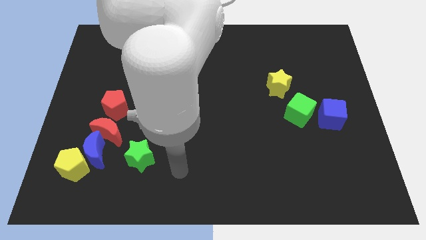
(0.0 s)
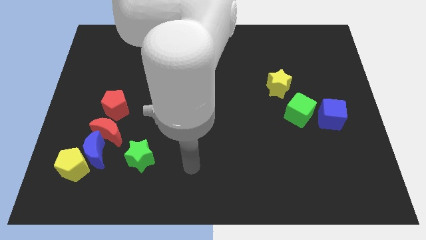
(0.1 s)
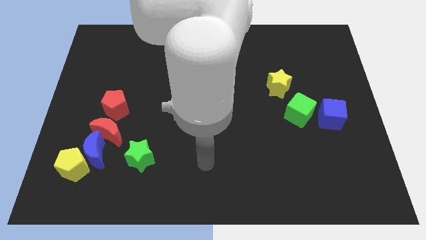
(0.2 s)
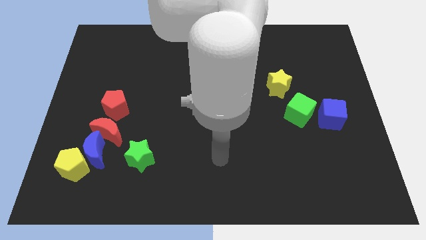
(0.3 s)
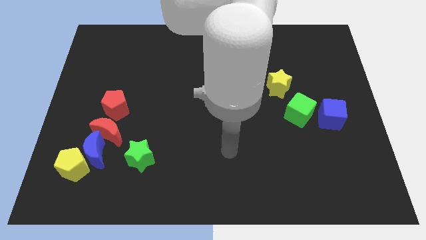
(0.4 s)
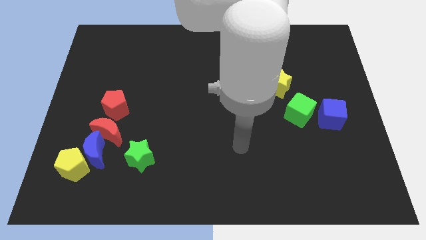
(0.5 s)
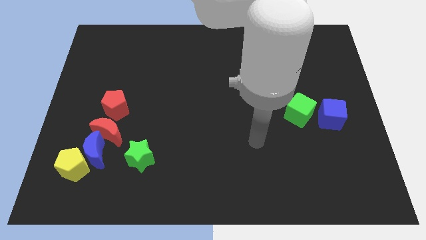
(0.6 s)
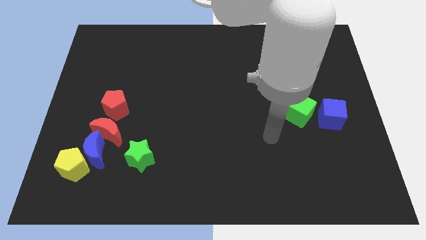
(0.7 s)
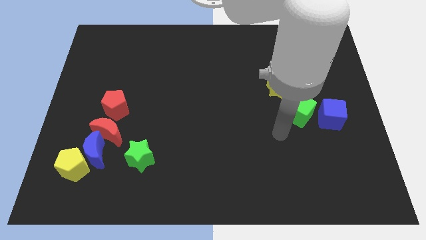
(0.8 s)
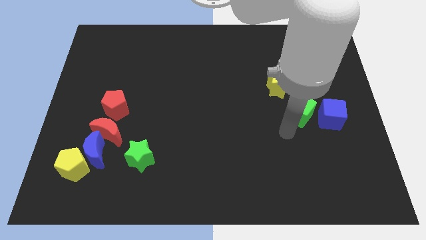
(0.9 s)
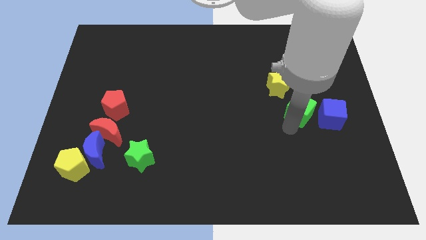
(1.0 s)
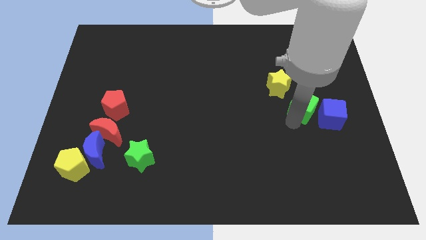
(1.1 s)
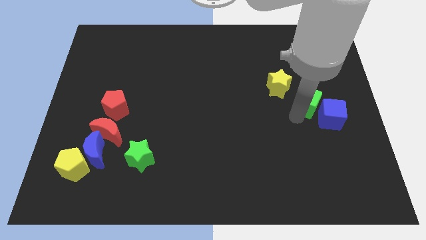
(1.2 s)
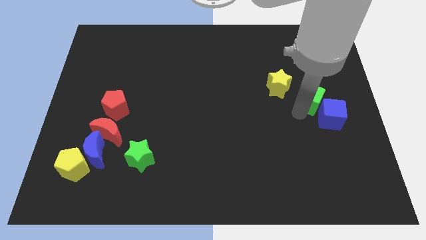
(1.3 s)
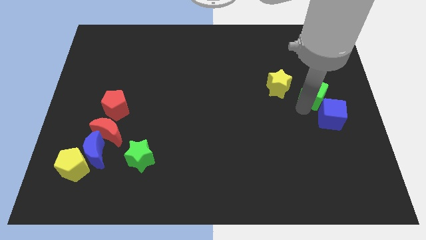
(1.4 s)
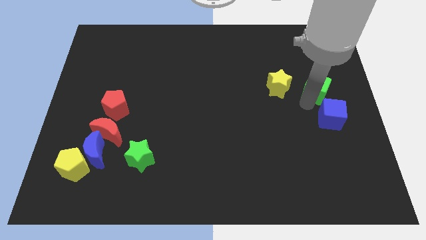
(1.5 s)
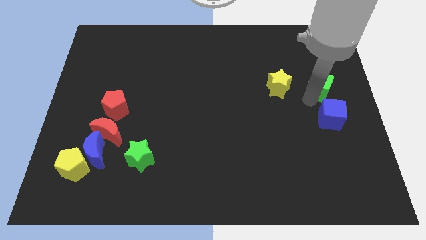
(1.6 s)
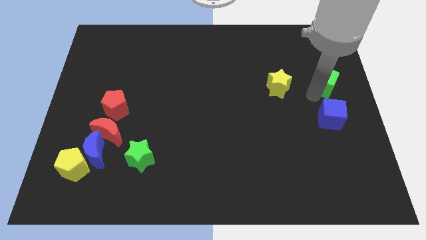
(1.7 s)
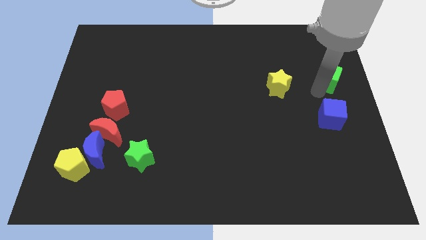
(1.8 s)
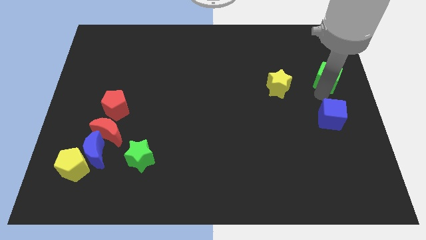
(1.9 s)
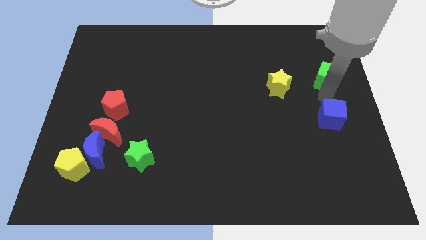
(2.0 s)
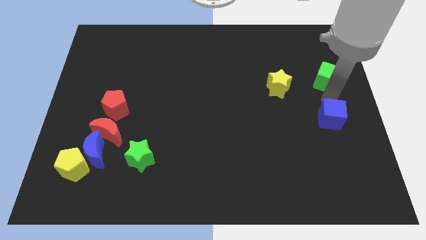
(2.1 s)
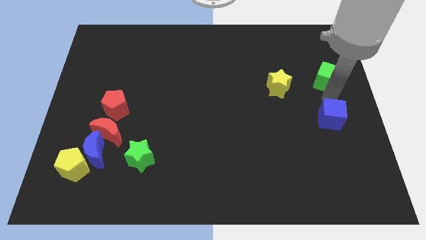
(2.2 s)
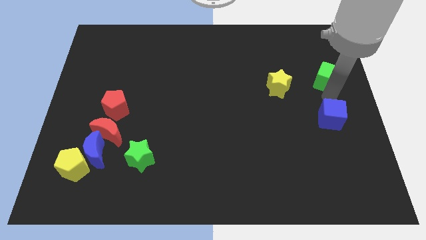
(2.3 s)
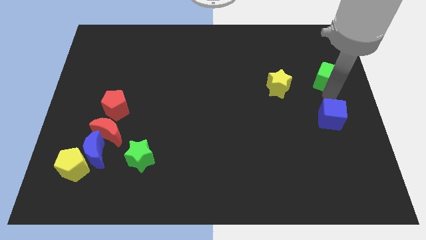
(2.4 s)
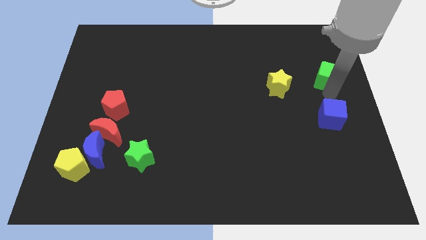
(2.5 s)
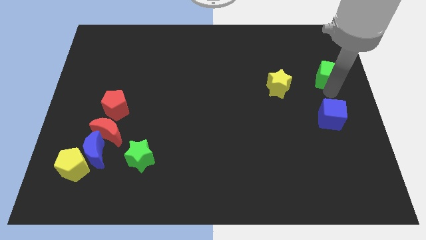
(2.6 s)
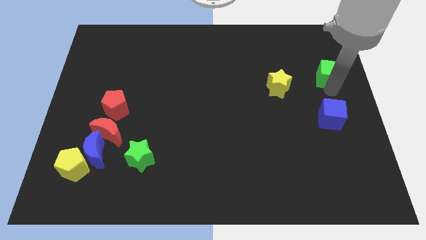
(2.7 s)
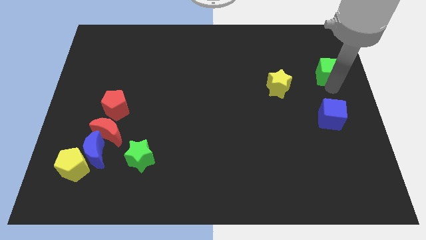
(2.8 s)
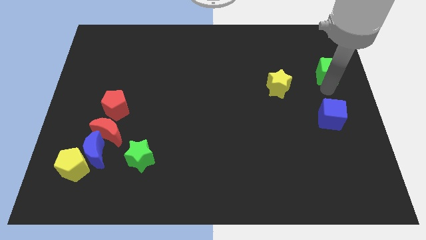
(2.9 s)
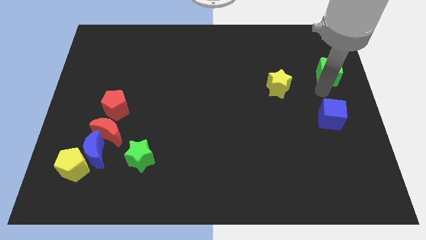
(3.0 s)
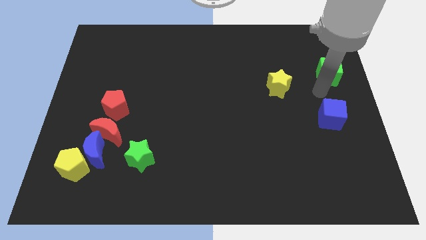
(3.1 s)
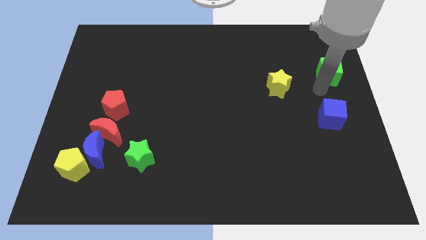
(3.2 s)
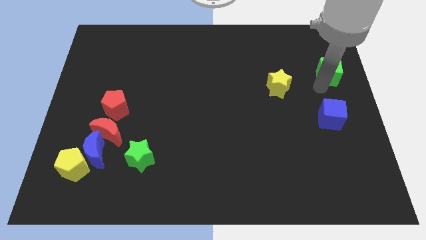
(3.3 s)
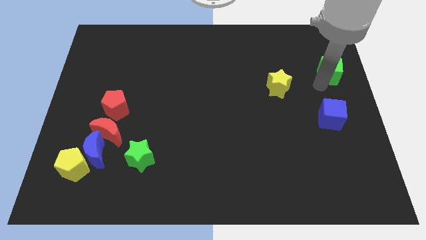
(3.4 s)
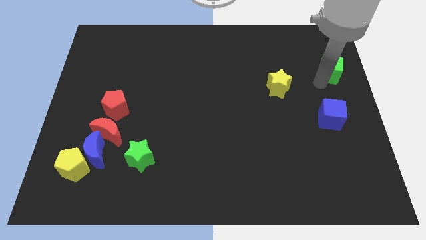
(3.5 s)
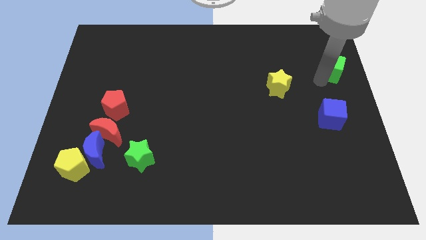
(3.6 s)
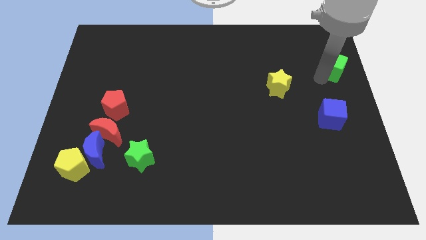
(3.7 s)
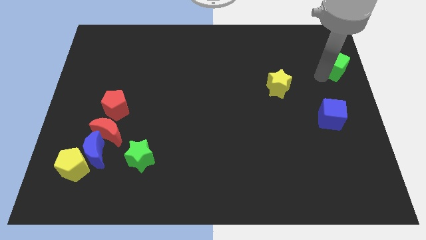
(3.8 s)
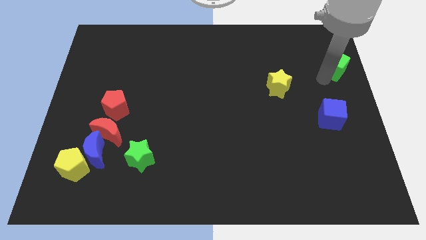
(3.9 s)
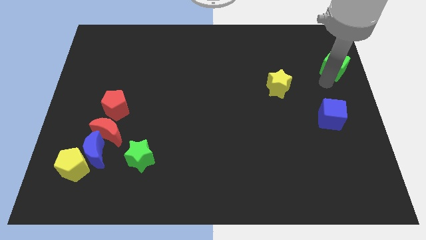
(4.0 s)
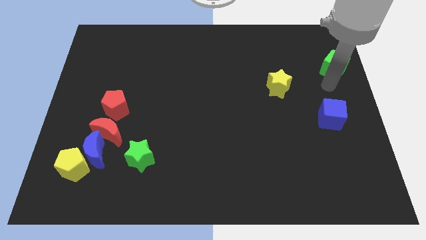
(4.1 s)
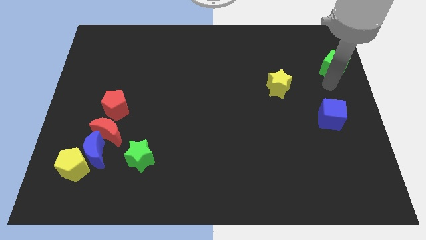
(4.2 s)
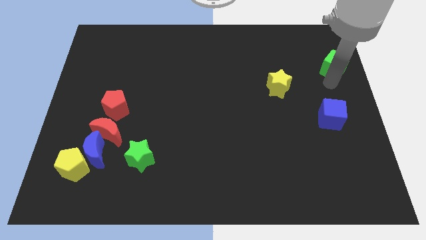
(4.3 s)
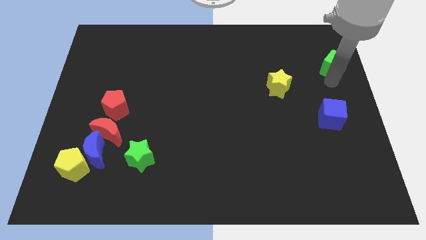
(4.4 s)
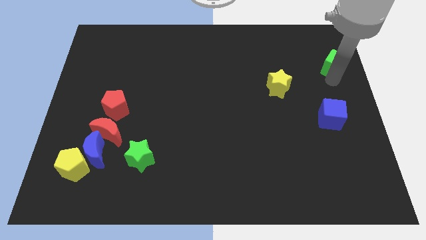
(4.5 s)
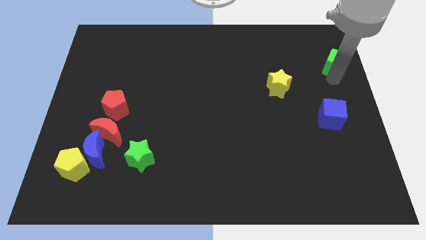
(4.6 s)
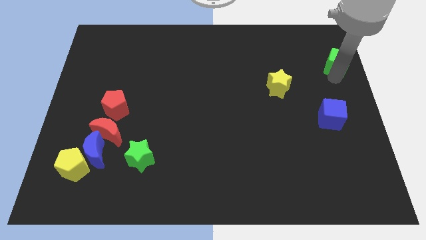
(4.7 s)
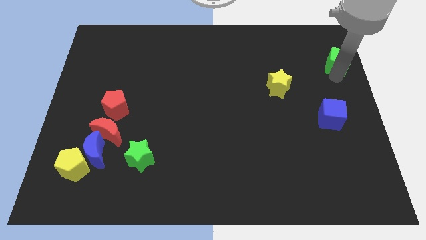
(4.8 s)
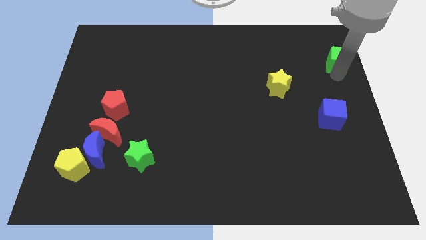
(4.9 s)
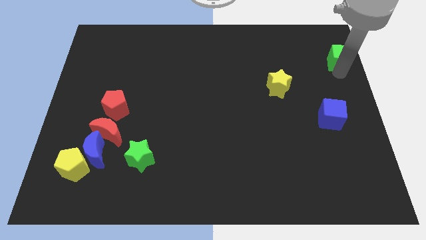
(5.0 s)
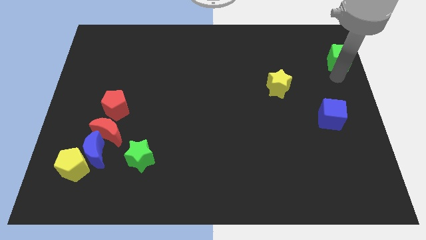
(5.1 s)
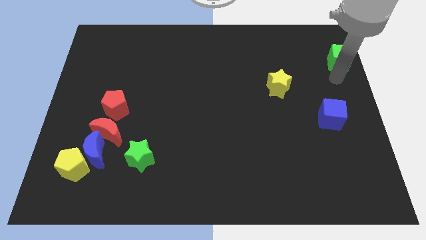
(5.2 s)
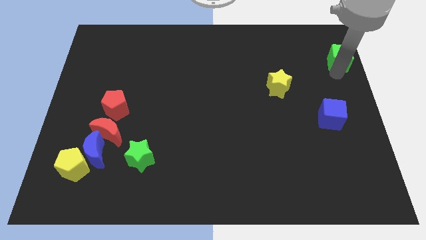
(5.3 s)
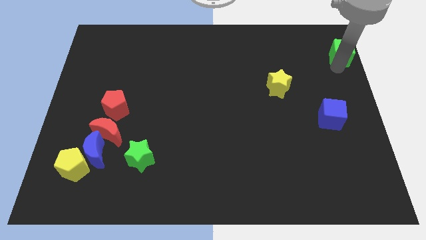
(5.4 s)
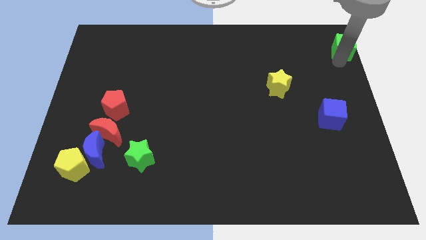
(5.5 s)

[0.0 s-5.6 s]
put the green cube to the top right of the board

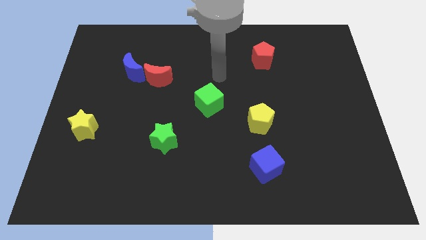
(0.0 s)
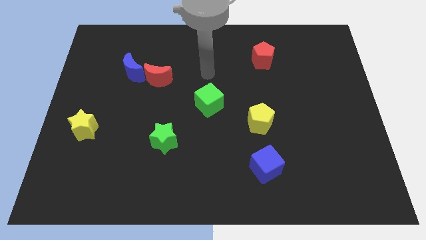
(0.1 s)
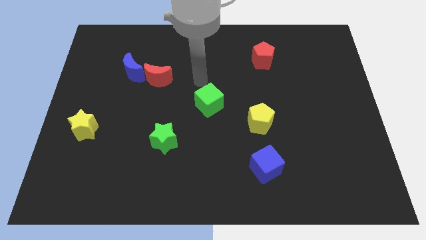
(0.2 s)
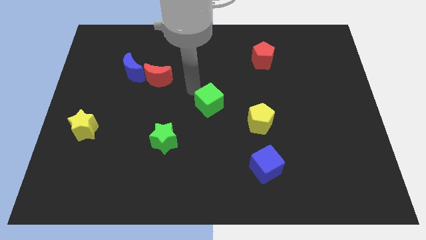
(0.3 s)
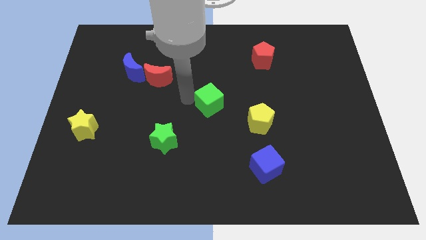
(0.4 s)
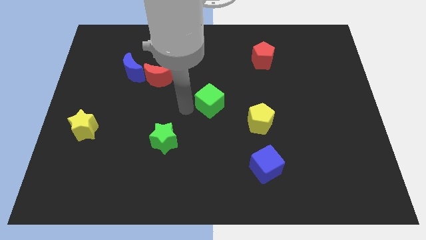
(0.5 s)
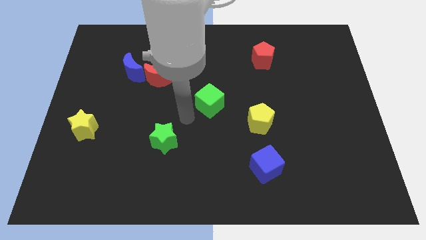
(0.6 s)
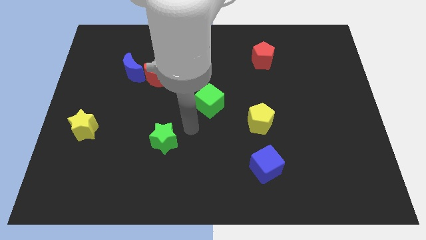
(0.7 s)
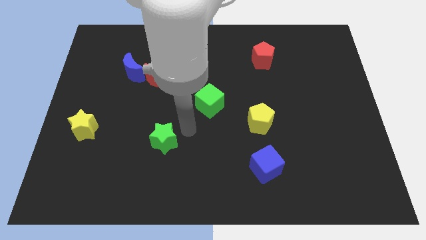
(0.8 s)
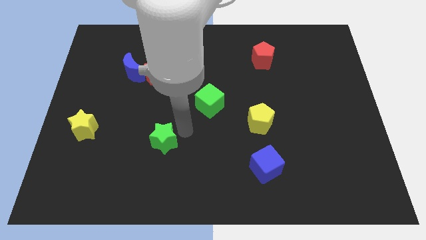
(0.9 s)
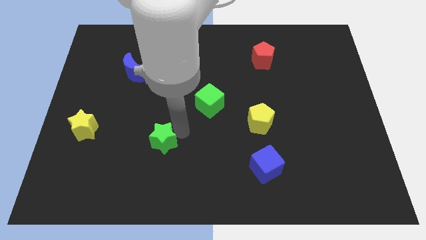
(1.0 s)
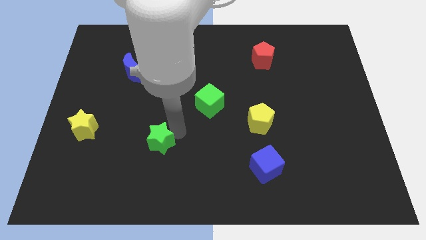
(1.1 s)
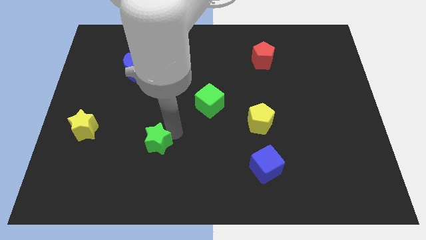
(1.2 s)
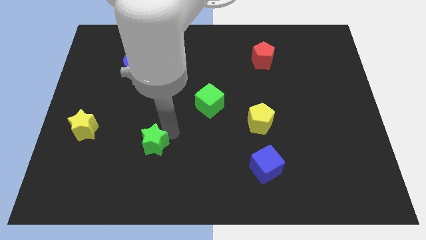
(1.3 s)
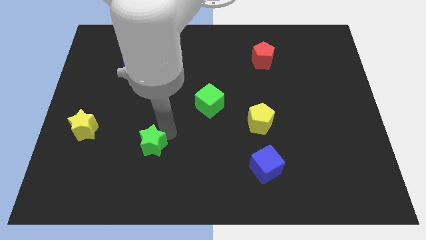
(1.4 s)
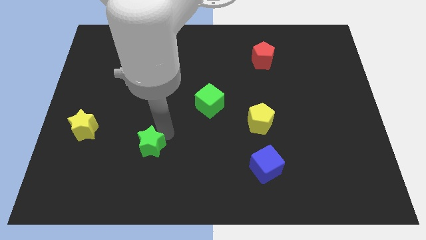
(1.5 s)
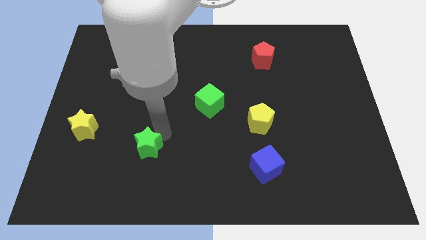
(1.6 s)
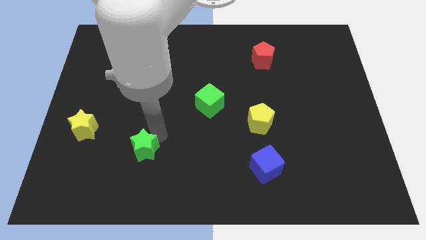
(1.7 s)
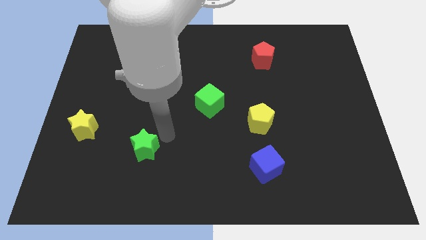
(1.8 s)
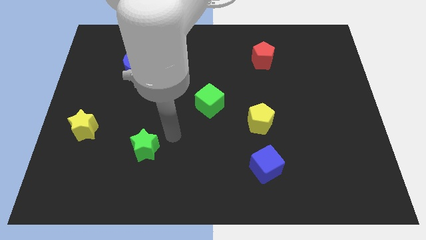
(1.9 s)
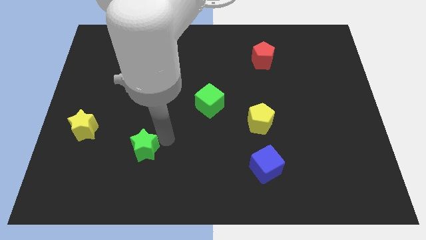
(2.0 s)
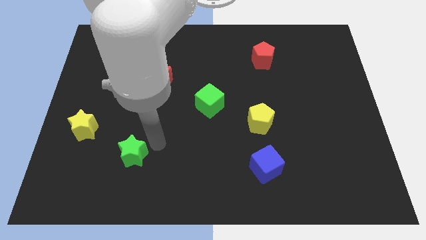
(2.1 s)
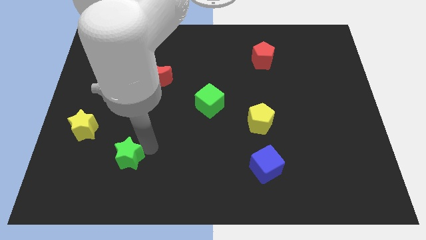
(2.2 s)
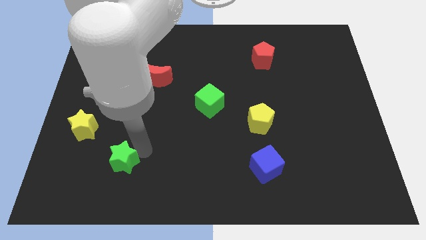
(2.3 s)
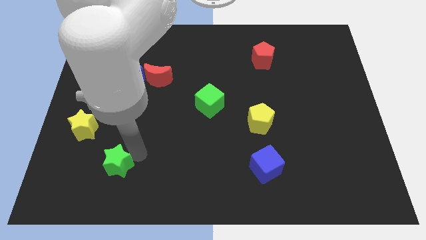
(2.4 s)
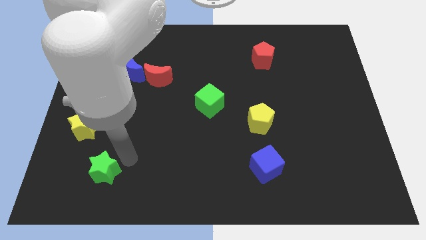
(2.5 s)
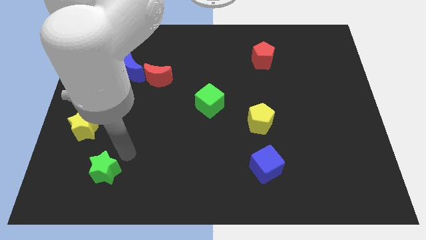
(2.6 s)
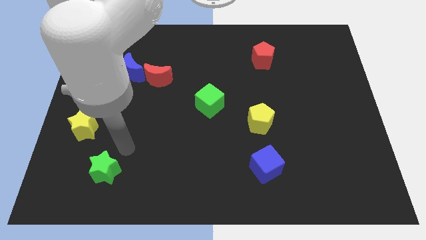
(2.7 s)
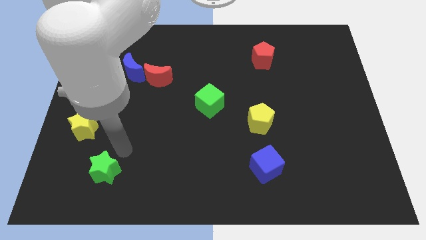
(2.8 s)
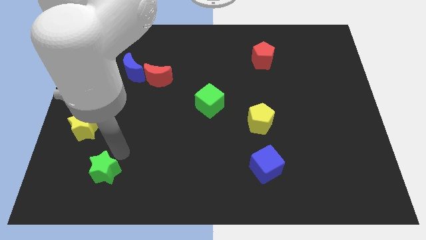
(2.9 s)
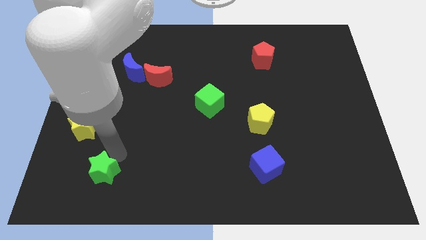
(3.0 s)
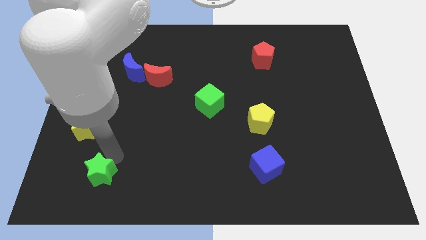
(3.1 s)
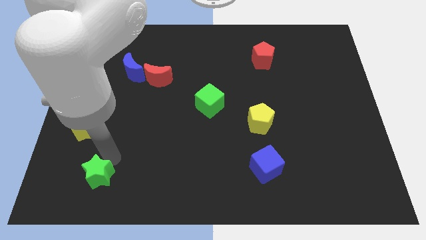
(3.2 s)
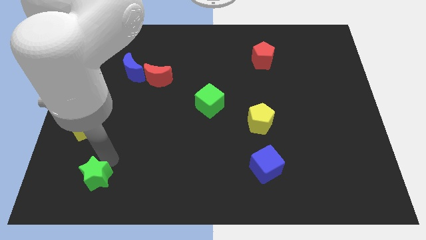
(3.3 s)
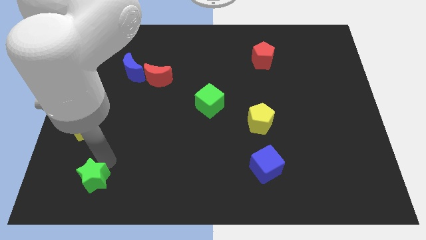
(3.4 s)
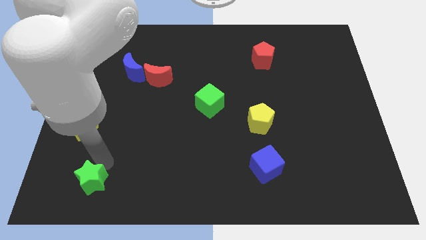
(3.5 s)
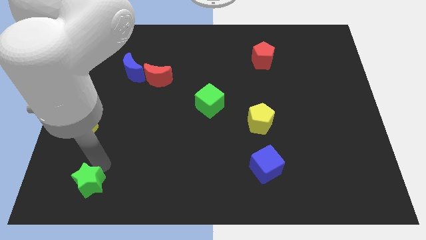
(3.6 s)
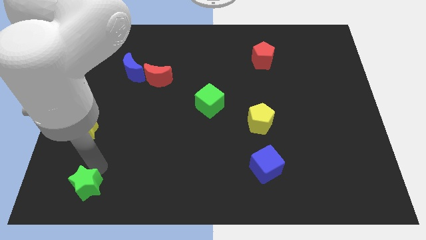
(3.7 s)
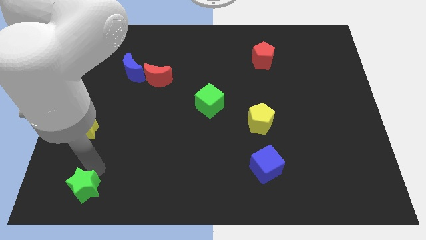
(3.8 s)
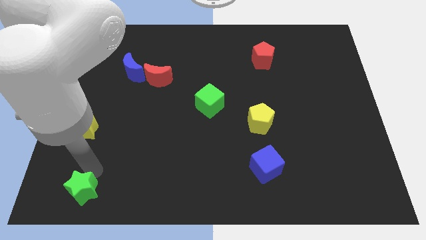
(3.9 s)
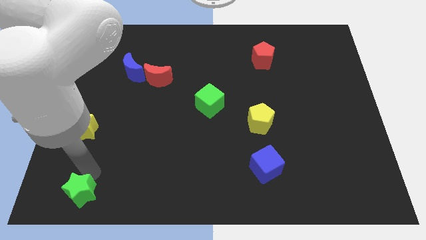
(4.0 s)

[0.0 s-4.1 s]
push the green star to the bottom left
